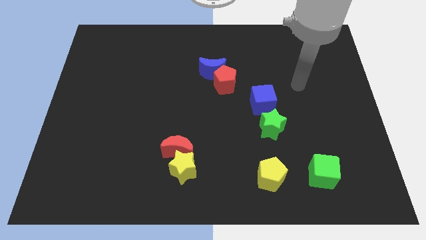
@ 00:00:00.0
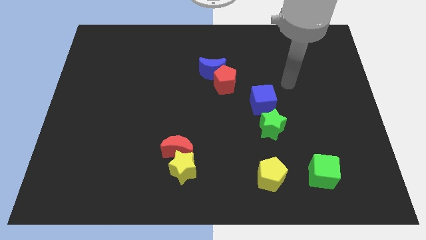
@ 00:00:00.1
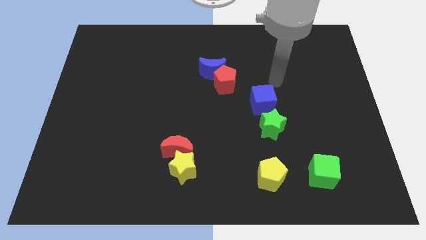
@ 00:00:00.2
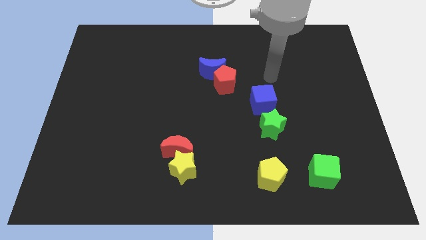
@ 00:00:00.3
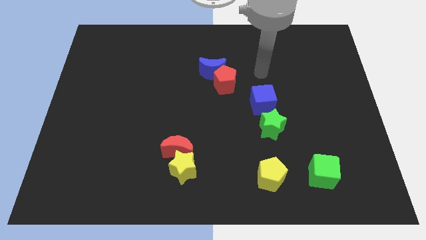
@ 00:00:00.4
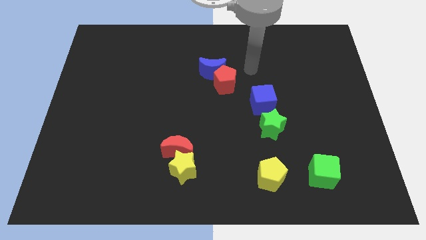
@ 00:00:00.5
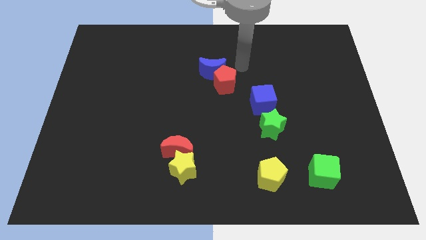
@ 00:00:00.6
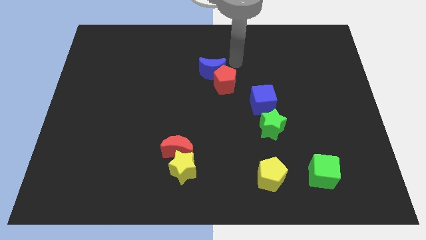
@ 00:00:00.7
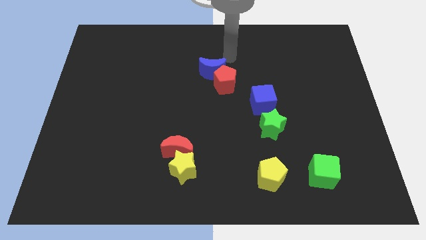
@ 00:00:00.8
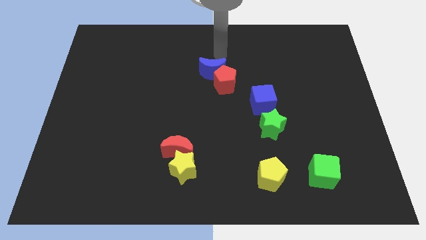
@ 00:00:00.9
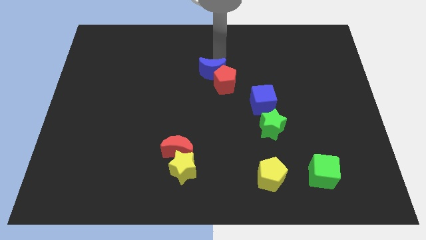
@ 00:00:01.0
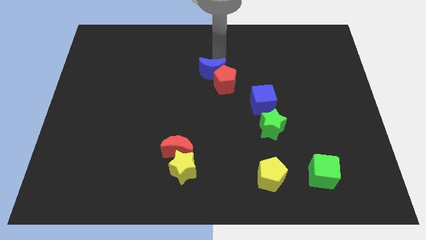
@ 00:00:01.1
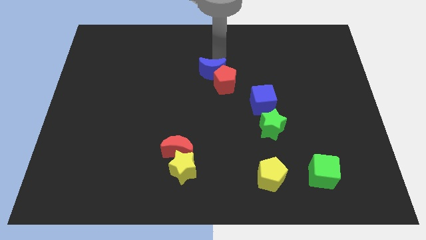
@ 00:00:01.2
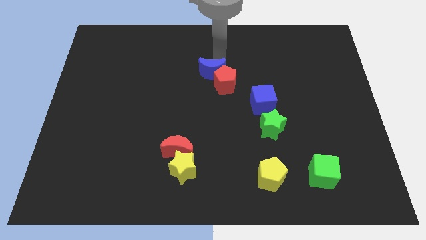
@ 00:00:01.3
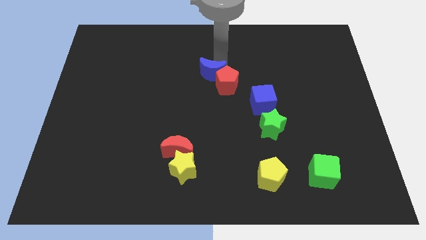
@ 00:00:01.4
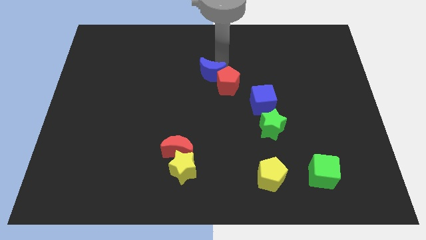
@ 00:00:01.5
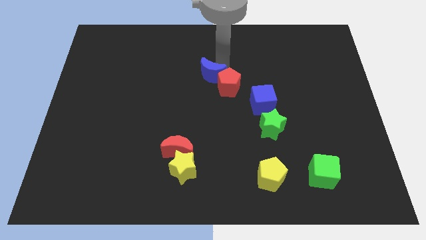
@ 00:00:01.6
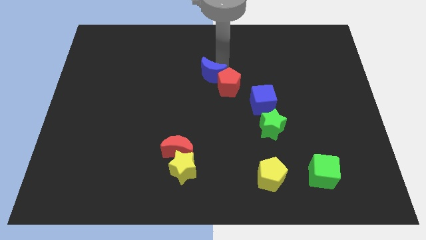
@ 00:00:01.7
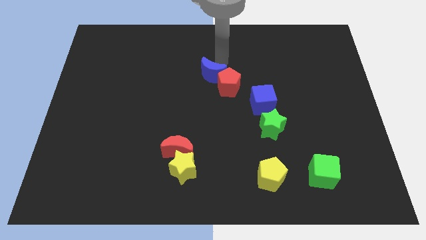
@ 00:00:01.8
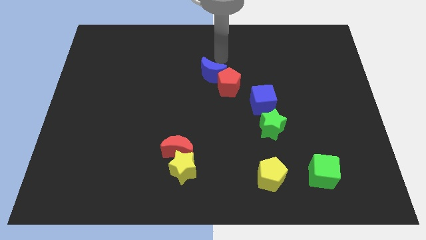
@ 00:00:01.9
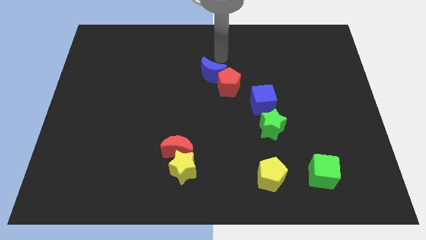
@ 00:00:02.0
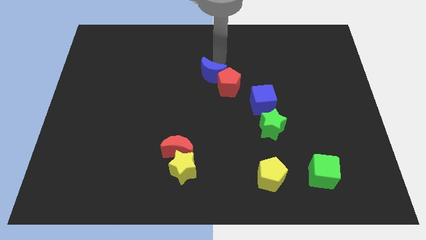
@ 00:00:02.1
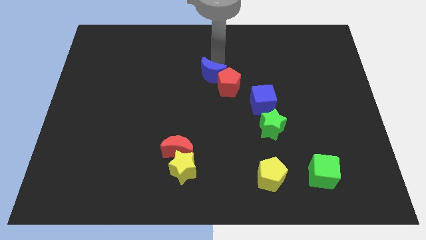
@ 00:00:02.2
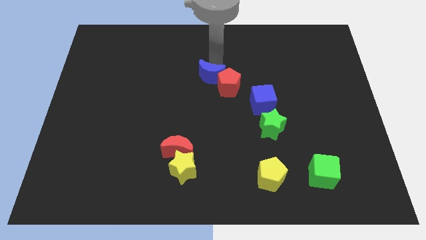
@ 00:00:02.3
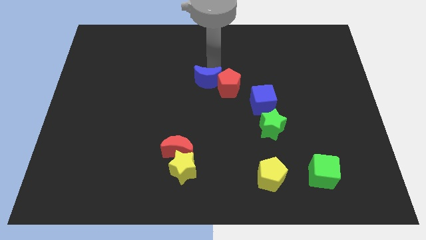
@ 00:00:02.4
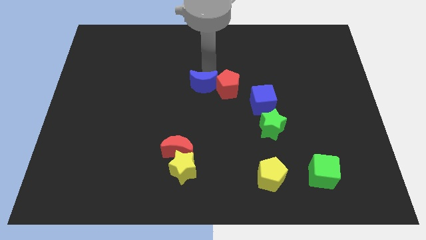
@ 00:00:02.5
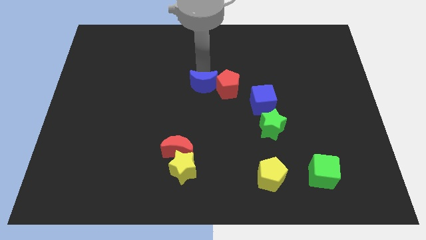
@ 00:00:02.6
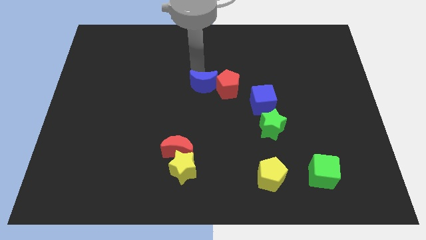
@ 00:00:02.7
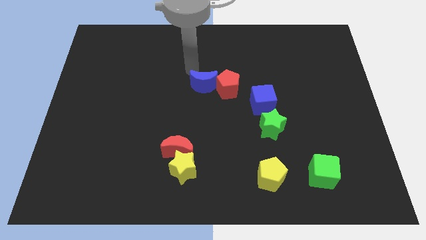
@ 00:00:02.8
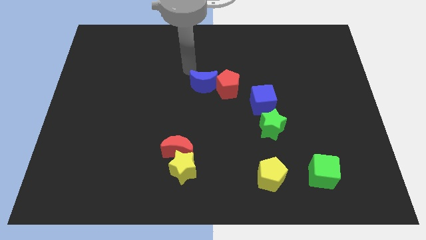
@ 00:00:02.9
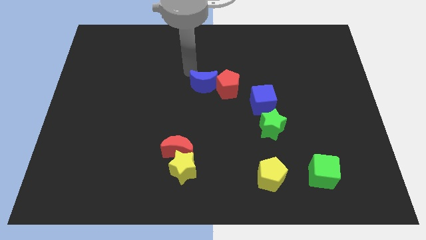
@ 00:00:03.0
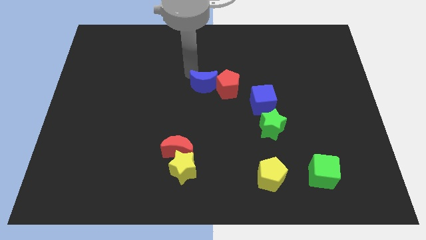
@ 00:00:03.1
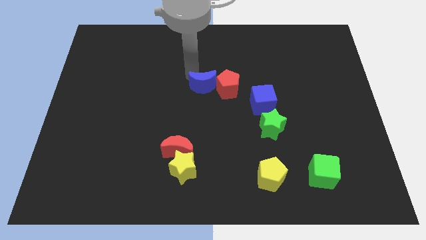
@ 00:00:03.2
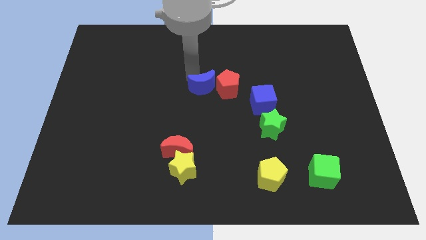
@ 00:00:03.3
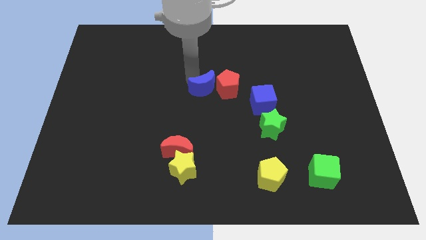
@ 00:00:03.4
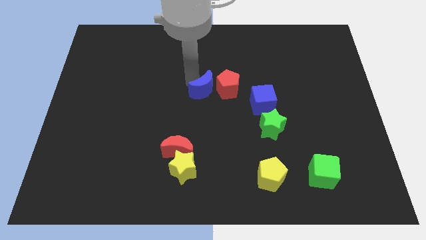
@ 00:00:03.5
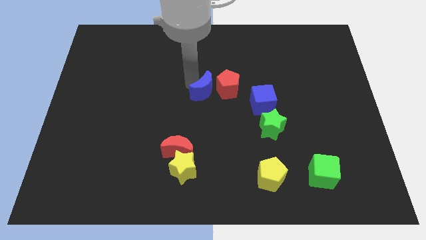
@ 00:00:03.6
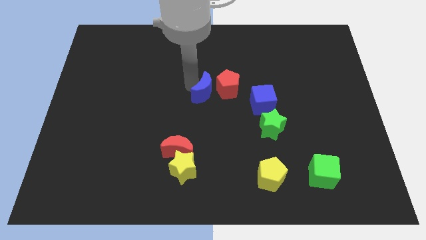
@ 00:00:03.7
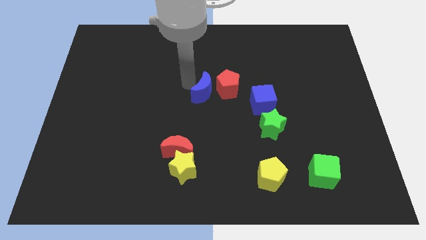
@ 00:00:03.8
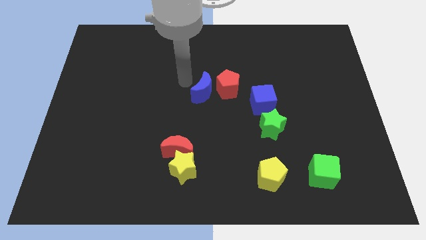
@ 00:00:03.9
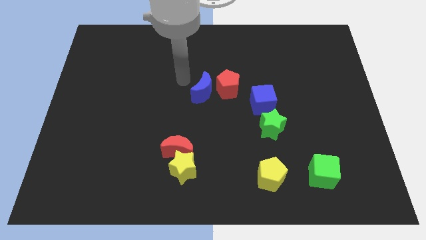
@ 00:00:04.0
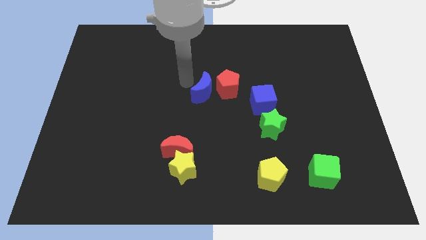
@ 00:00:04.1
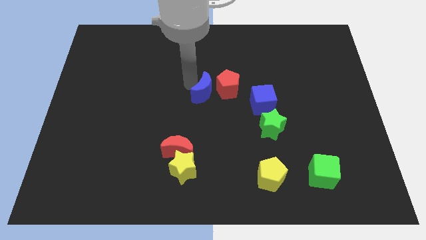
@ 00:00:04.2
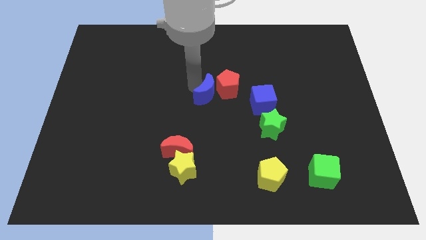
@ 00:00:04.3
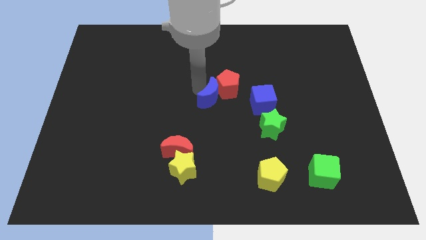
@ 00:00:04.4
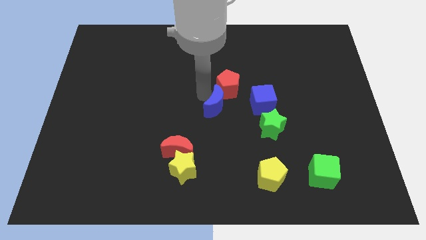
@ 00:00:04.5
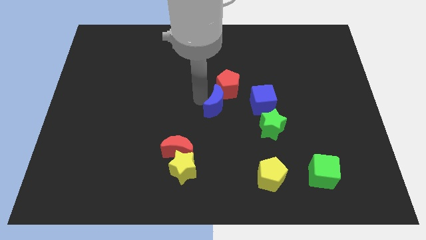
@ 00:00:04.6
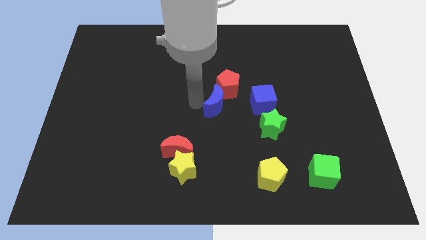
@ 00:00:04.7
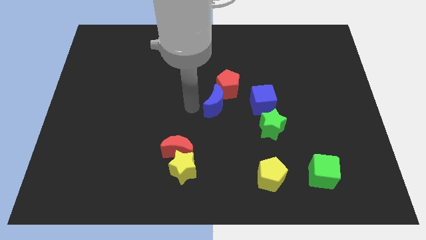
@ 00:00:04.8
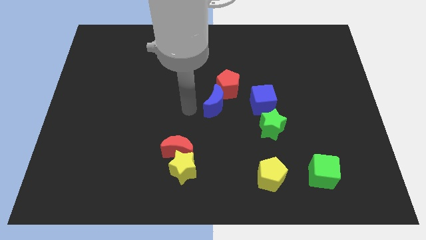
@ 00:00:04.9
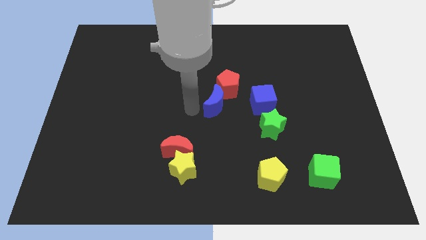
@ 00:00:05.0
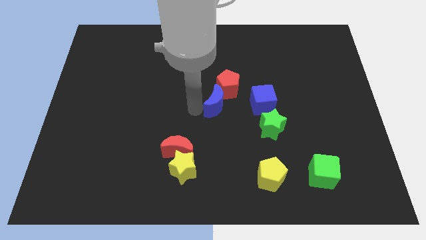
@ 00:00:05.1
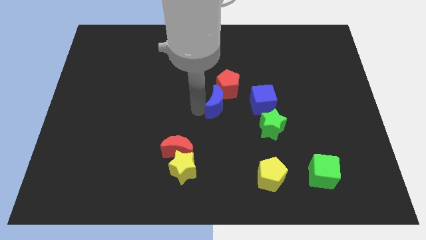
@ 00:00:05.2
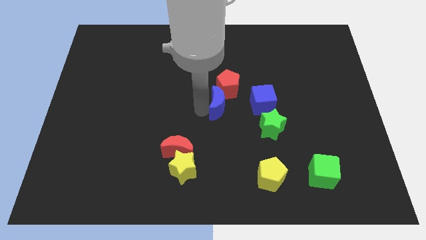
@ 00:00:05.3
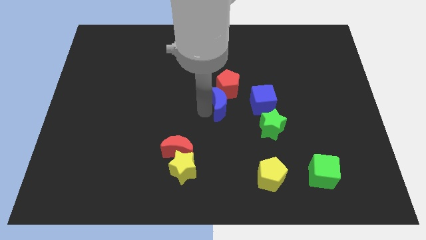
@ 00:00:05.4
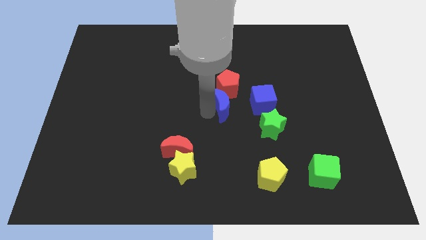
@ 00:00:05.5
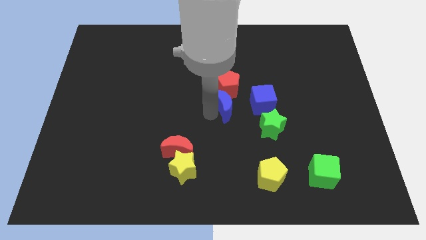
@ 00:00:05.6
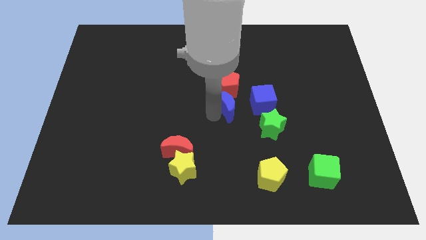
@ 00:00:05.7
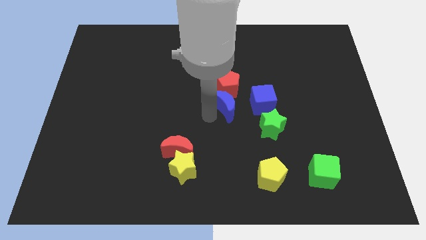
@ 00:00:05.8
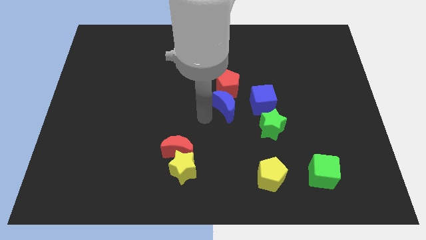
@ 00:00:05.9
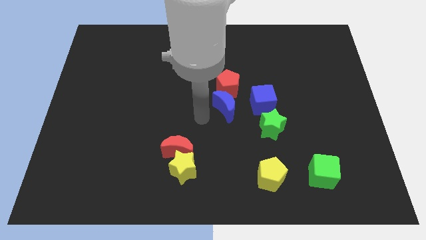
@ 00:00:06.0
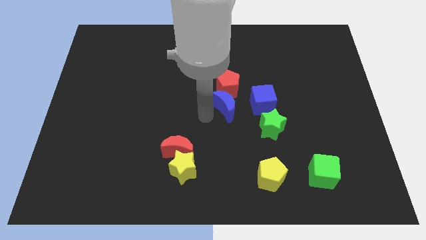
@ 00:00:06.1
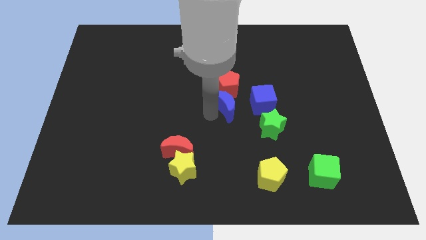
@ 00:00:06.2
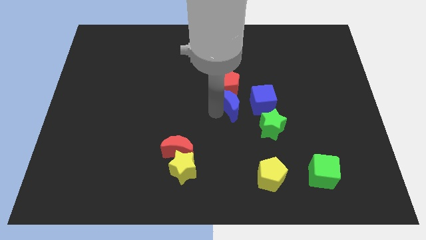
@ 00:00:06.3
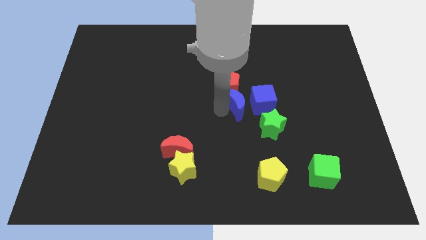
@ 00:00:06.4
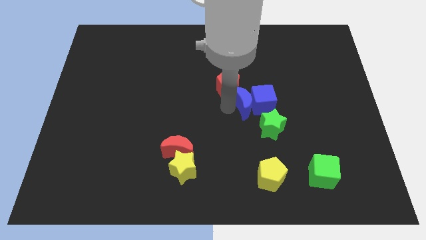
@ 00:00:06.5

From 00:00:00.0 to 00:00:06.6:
move the blue moon towards the blue cube
